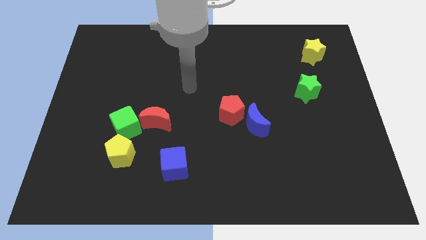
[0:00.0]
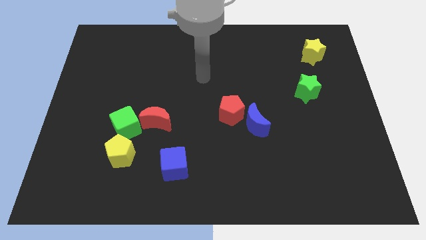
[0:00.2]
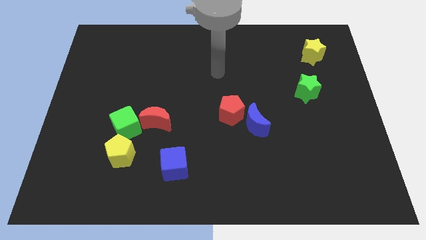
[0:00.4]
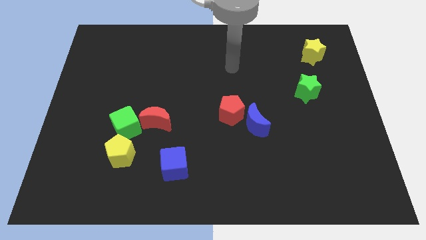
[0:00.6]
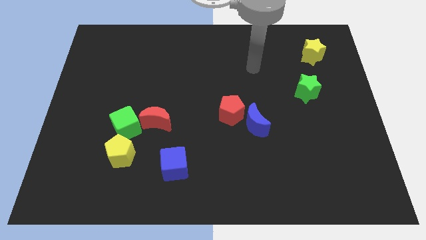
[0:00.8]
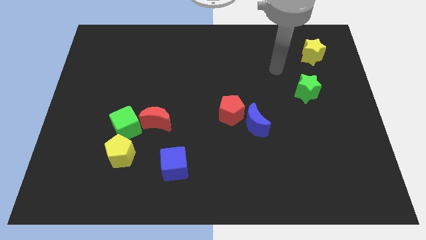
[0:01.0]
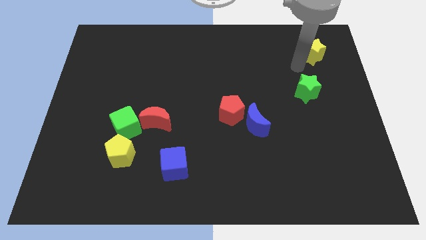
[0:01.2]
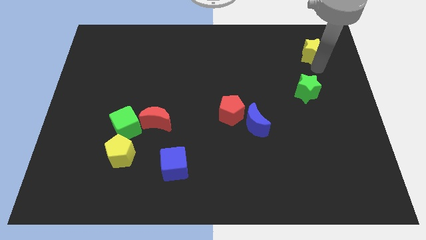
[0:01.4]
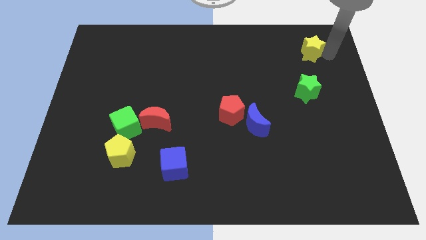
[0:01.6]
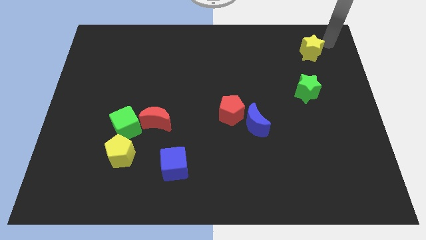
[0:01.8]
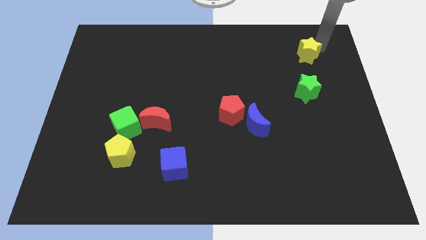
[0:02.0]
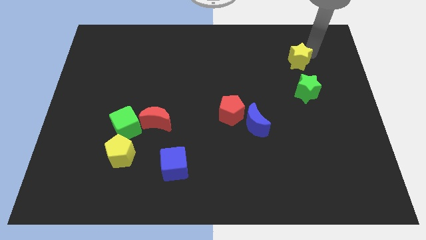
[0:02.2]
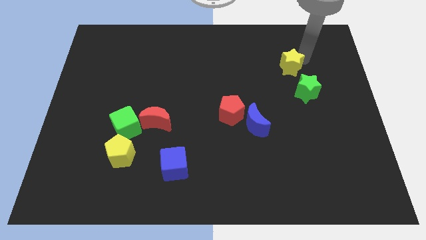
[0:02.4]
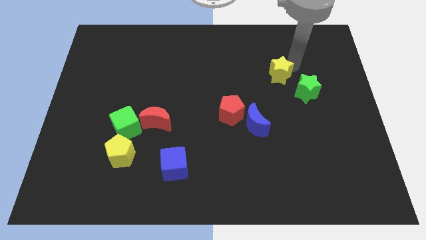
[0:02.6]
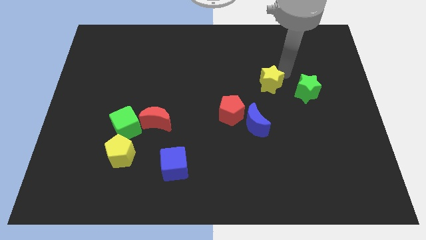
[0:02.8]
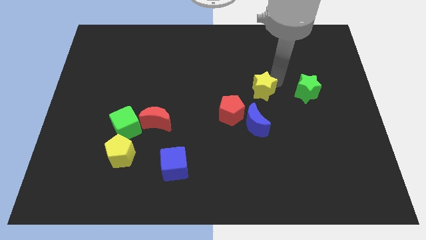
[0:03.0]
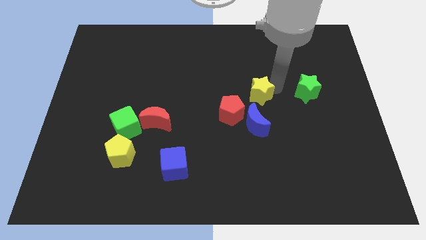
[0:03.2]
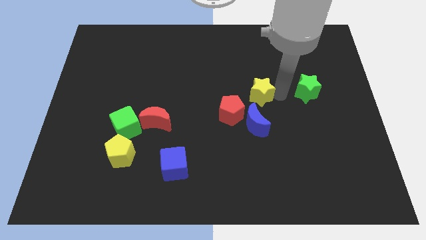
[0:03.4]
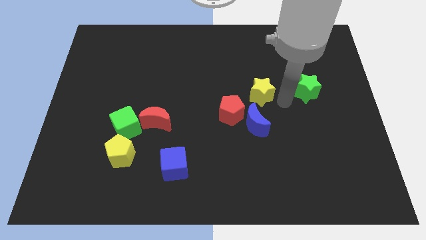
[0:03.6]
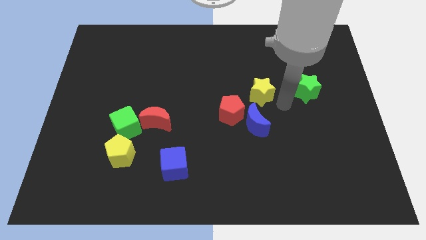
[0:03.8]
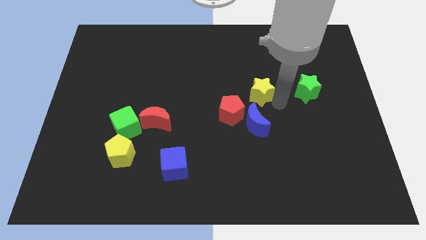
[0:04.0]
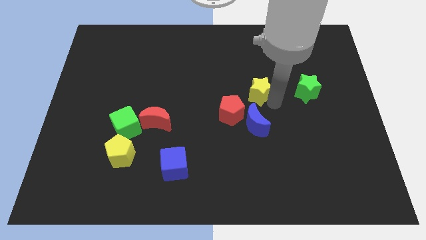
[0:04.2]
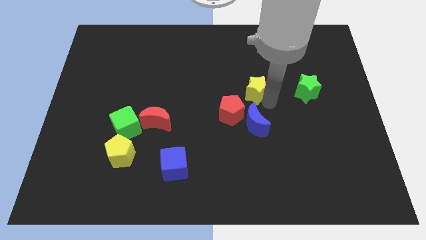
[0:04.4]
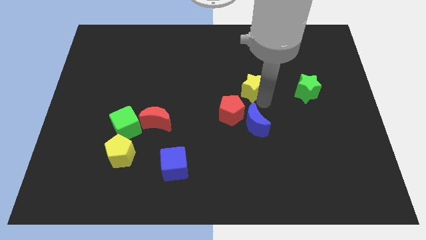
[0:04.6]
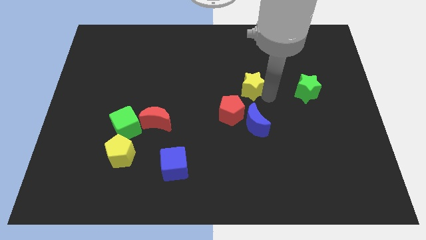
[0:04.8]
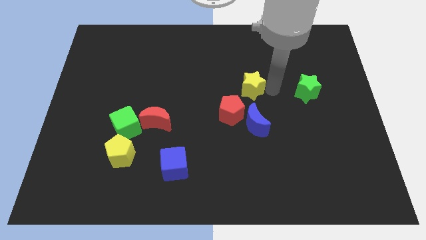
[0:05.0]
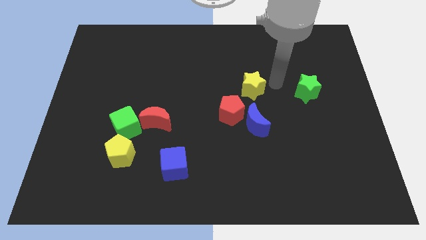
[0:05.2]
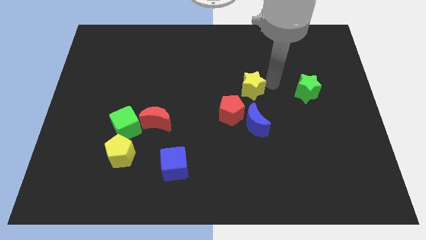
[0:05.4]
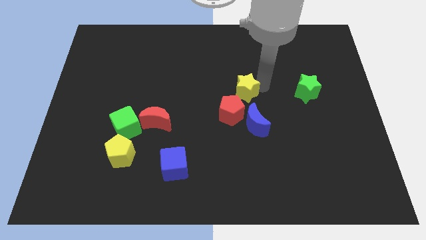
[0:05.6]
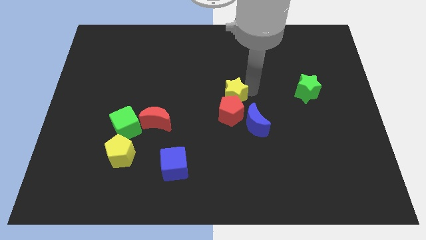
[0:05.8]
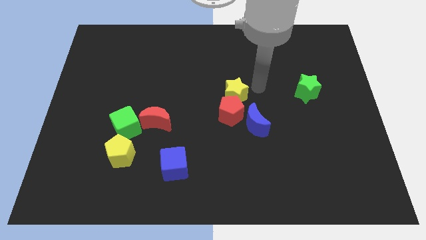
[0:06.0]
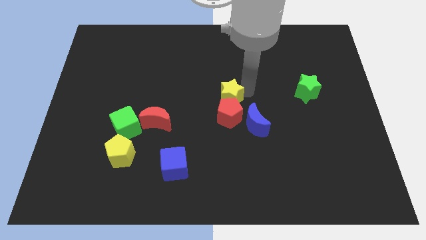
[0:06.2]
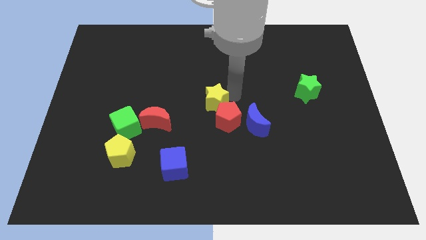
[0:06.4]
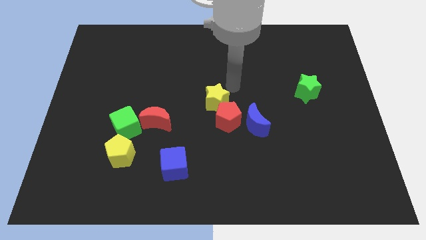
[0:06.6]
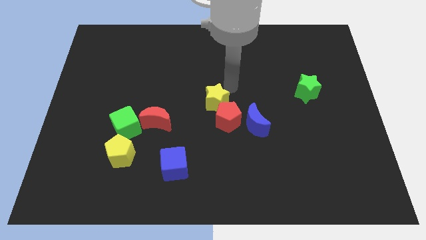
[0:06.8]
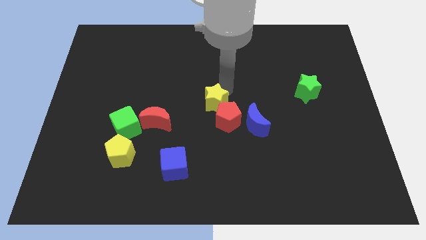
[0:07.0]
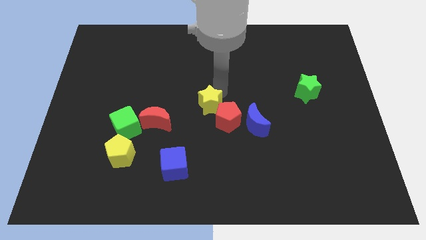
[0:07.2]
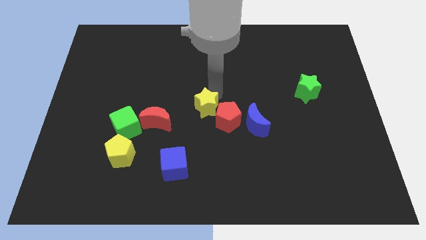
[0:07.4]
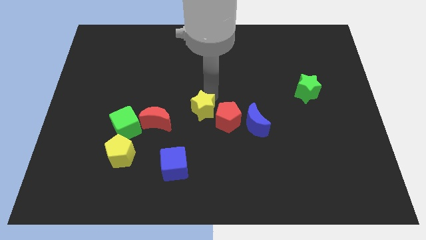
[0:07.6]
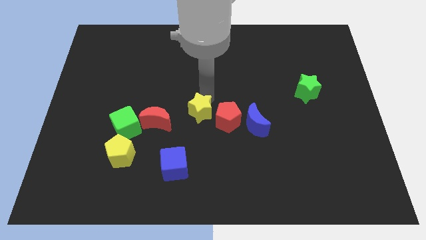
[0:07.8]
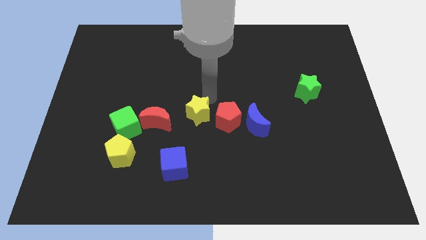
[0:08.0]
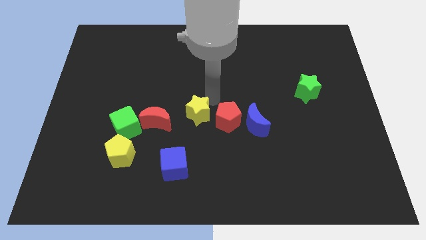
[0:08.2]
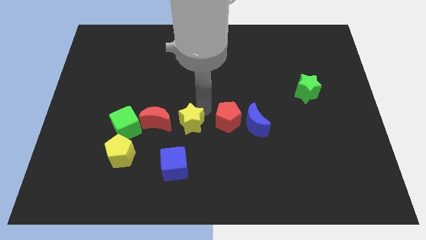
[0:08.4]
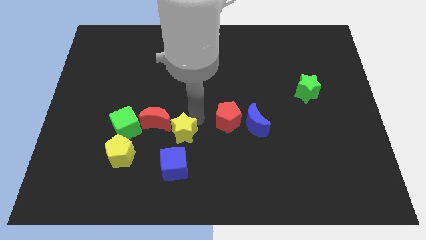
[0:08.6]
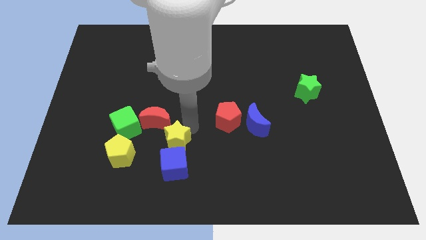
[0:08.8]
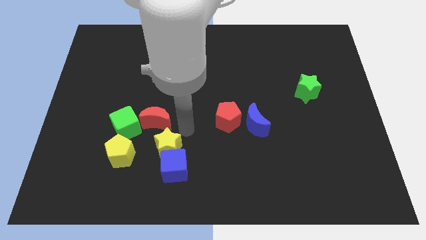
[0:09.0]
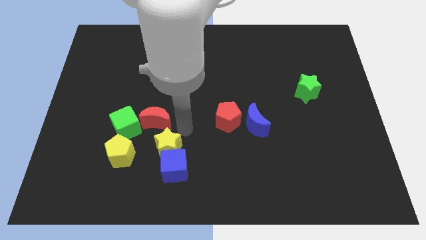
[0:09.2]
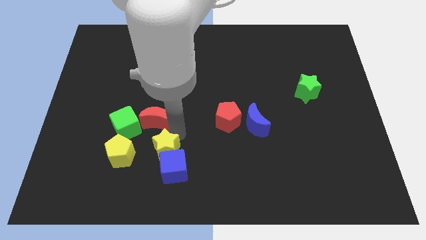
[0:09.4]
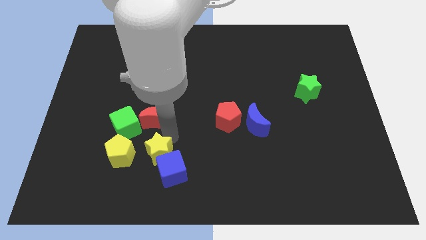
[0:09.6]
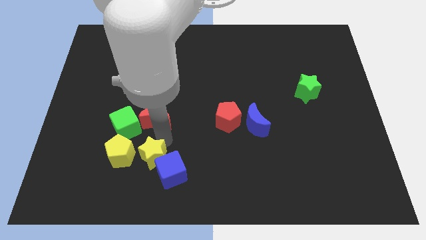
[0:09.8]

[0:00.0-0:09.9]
slide the yellow star to the bottom right of the yellow pentagon

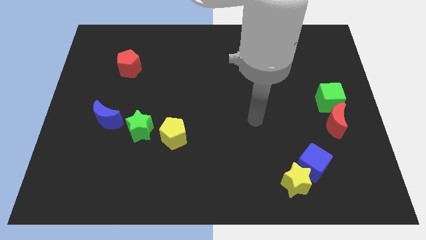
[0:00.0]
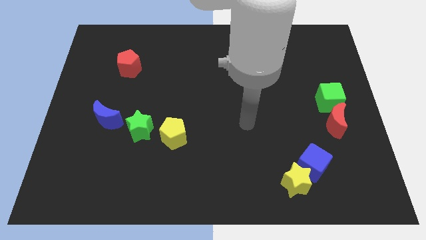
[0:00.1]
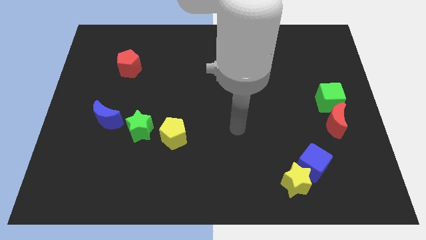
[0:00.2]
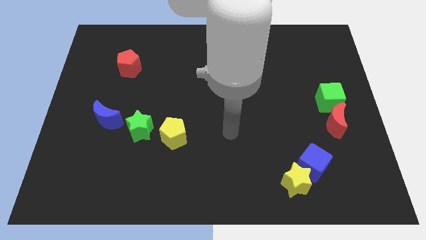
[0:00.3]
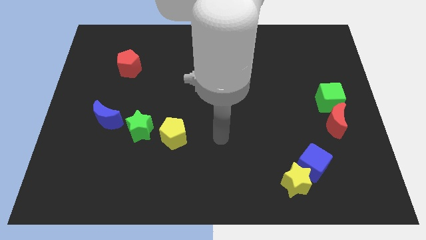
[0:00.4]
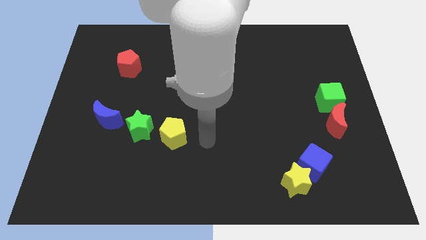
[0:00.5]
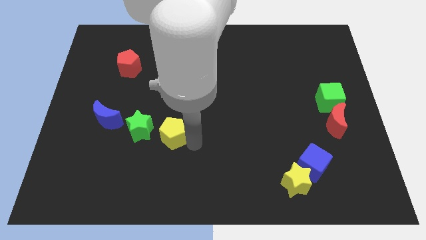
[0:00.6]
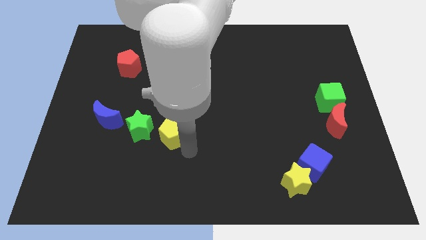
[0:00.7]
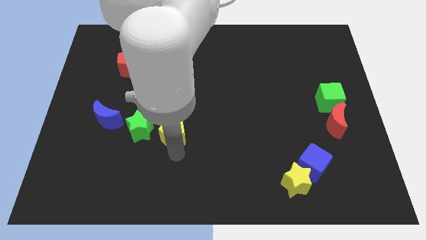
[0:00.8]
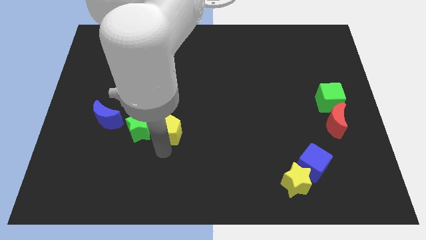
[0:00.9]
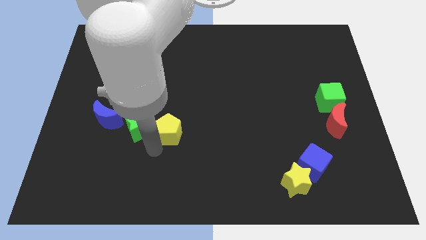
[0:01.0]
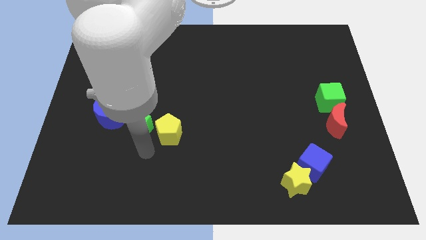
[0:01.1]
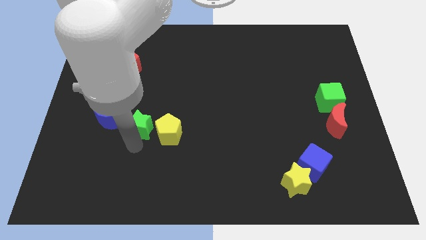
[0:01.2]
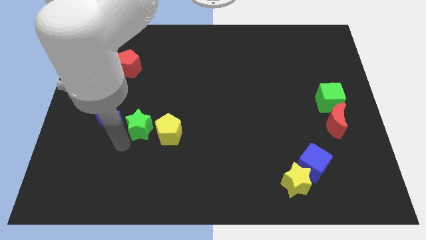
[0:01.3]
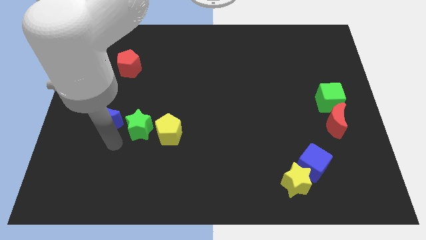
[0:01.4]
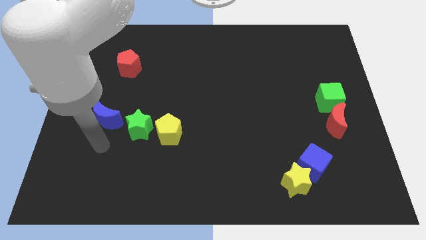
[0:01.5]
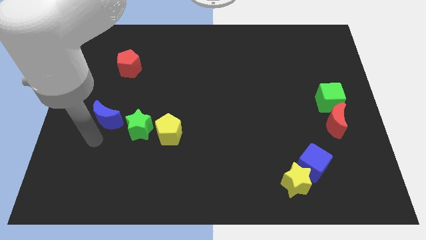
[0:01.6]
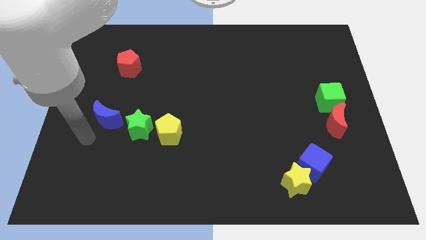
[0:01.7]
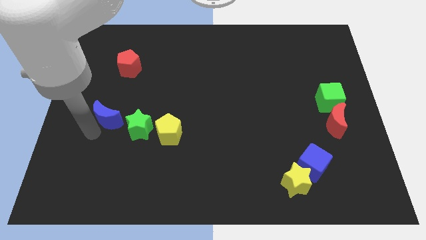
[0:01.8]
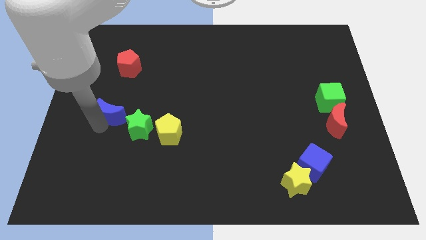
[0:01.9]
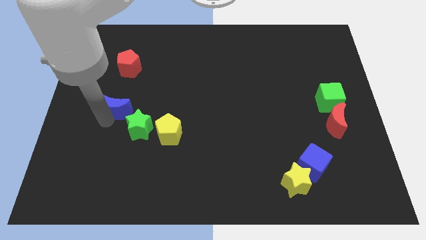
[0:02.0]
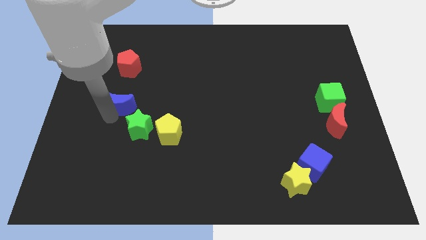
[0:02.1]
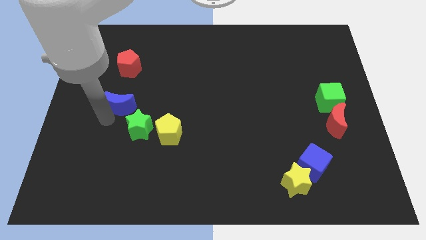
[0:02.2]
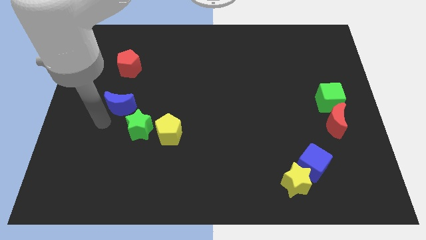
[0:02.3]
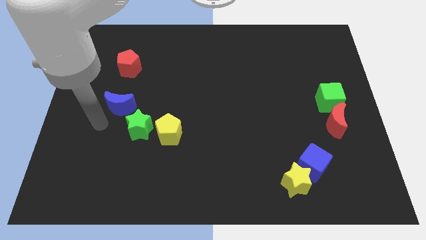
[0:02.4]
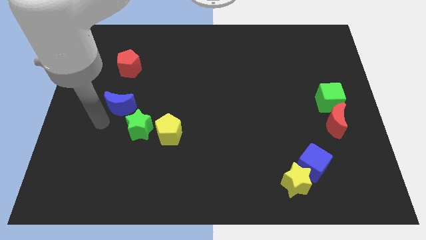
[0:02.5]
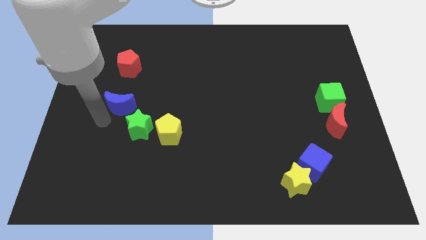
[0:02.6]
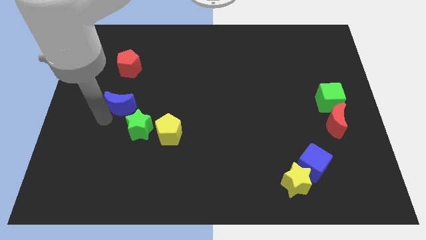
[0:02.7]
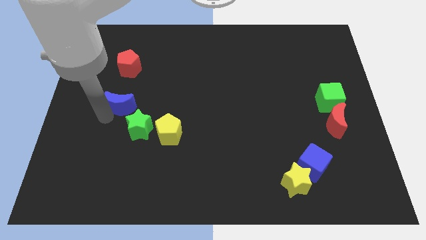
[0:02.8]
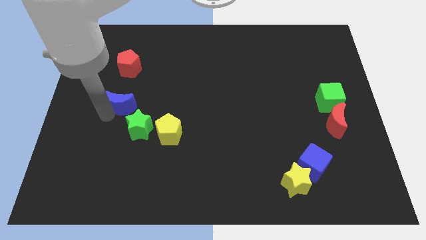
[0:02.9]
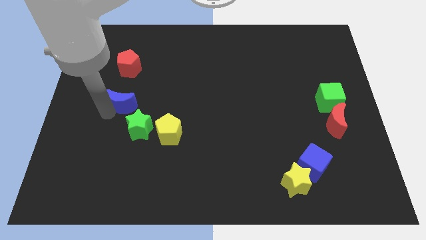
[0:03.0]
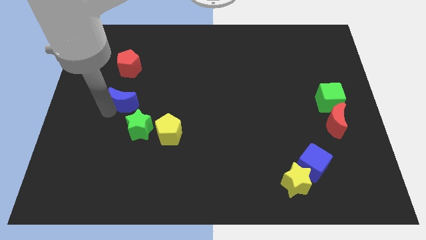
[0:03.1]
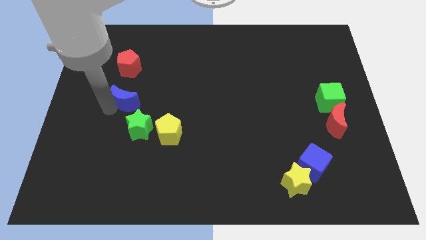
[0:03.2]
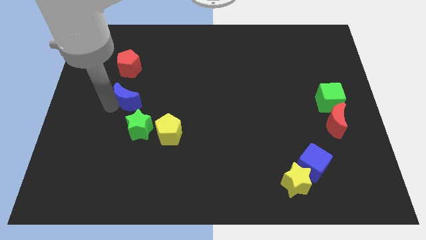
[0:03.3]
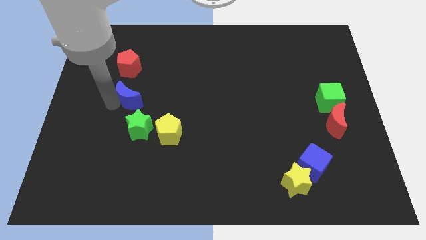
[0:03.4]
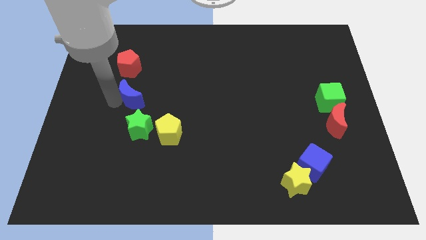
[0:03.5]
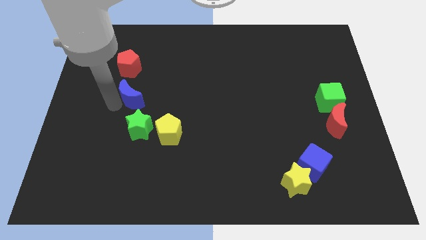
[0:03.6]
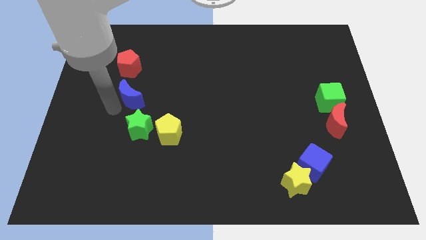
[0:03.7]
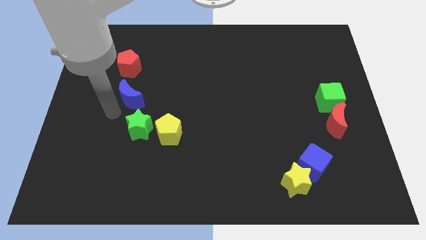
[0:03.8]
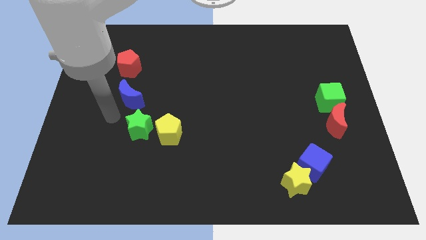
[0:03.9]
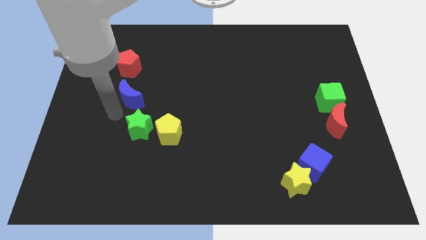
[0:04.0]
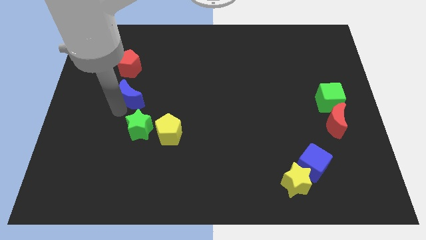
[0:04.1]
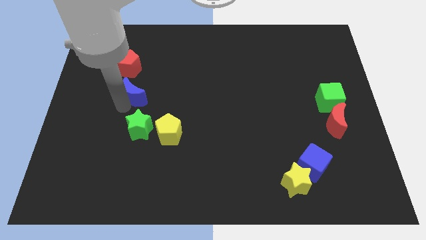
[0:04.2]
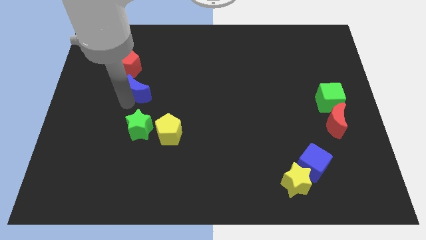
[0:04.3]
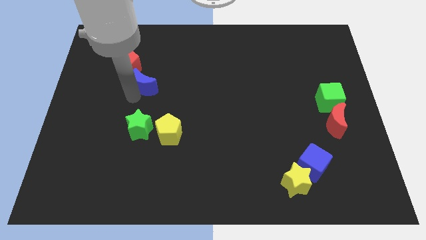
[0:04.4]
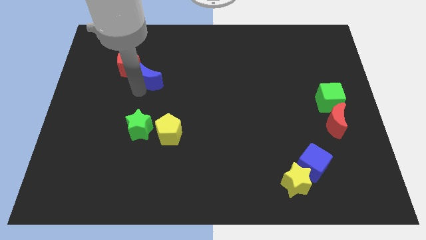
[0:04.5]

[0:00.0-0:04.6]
move the blue moon to the right side of the red pentagon
